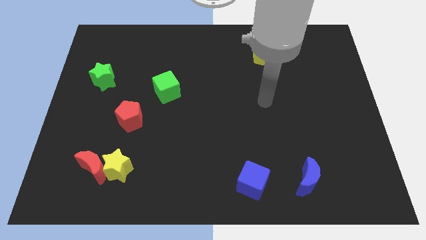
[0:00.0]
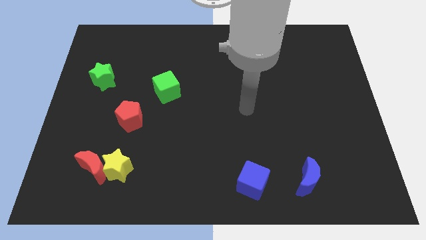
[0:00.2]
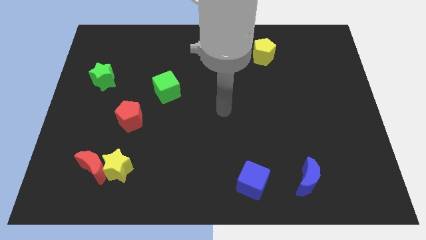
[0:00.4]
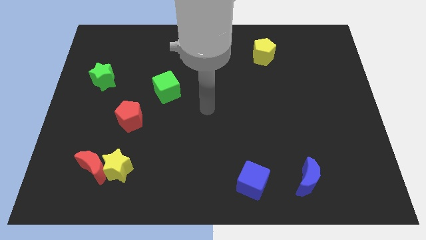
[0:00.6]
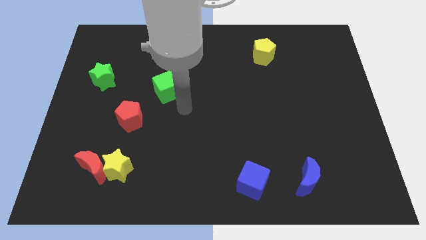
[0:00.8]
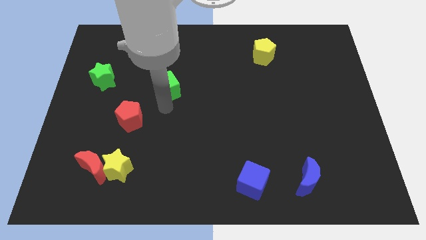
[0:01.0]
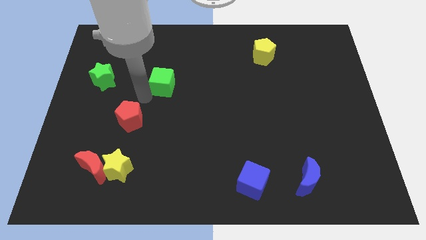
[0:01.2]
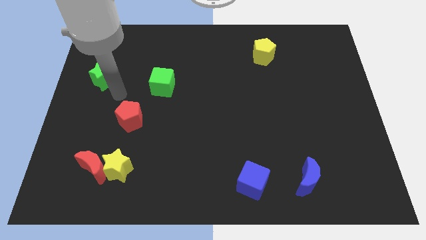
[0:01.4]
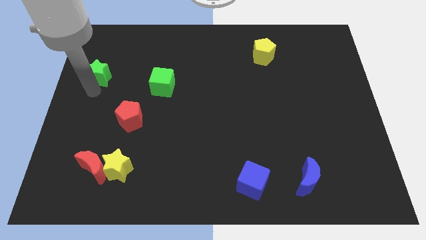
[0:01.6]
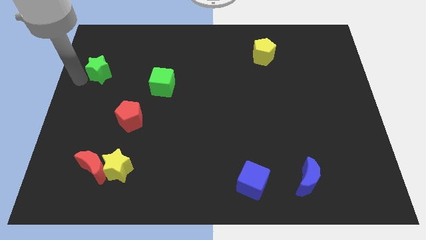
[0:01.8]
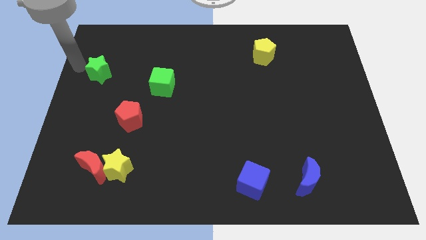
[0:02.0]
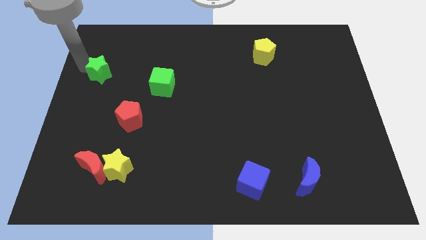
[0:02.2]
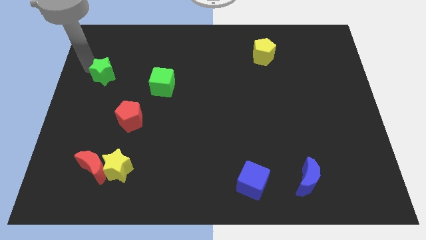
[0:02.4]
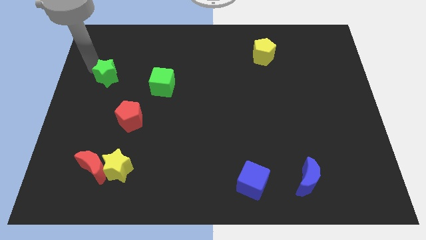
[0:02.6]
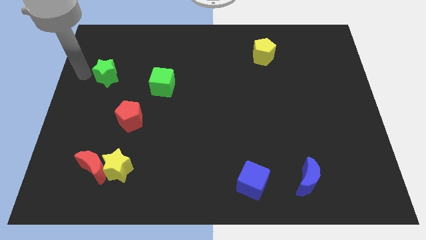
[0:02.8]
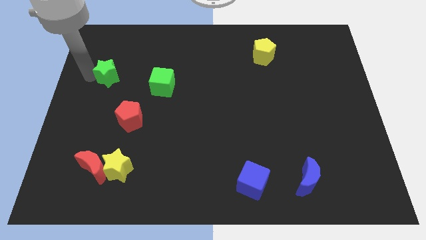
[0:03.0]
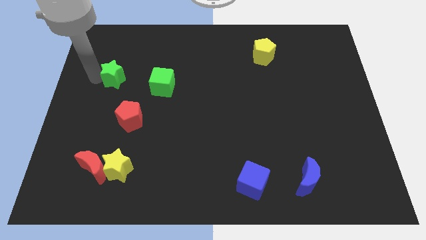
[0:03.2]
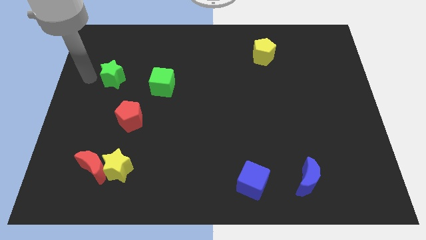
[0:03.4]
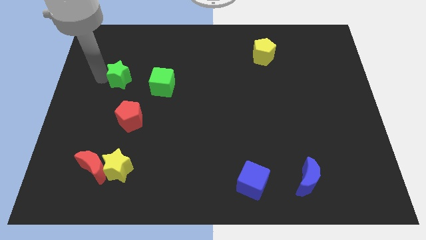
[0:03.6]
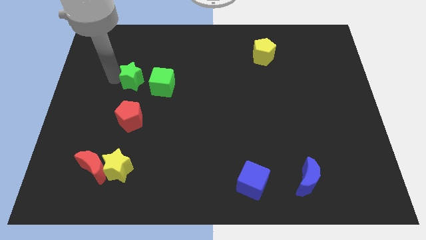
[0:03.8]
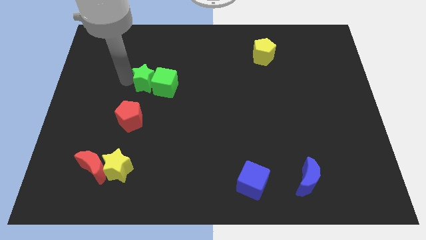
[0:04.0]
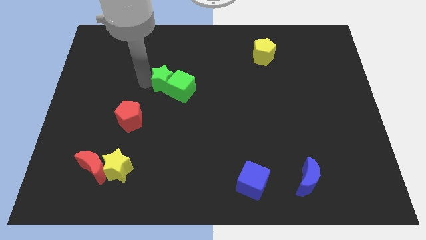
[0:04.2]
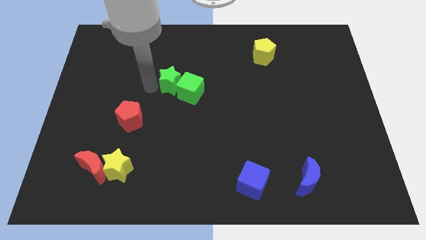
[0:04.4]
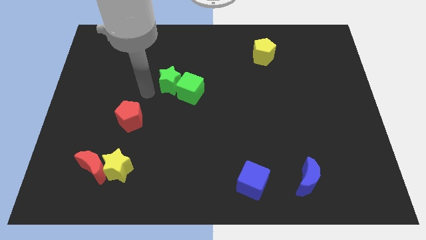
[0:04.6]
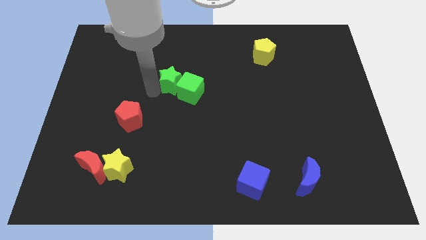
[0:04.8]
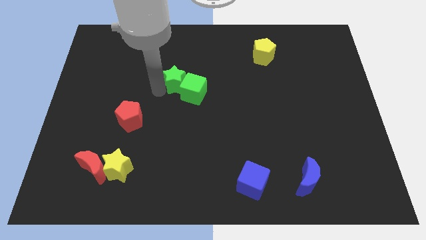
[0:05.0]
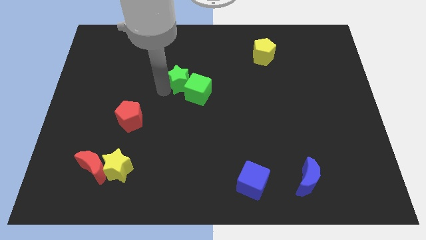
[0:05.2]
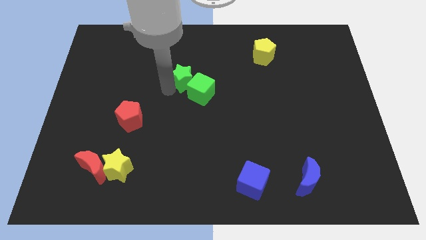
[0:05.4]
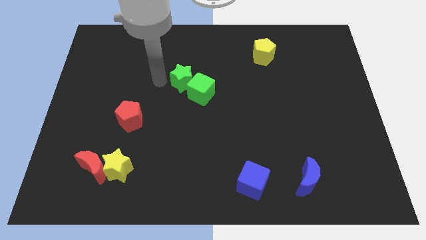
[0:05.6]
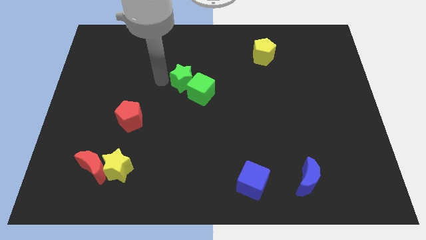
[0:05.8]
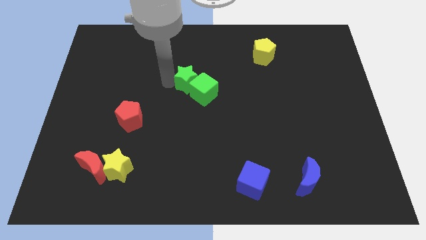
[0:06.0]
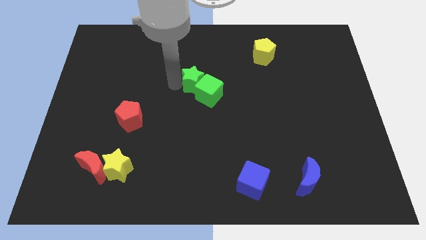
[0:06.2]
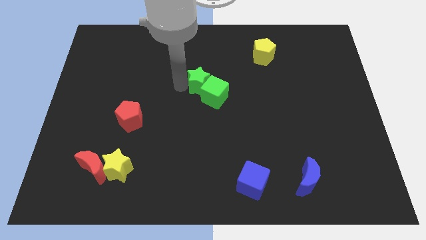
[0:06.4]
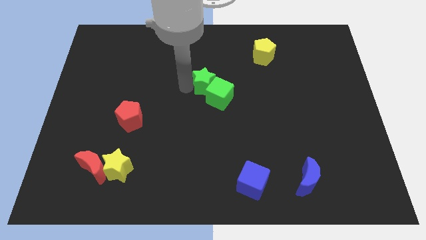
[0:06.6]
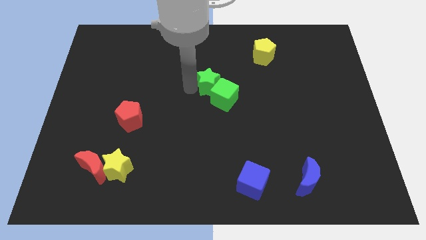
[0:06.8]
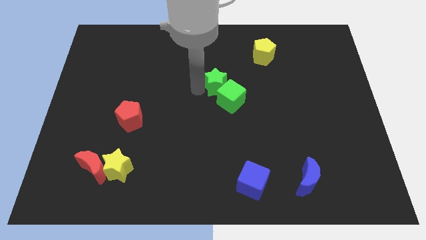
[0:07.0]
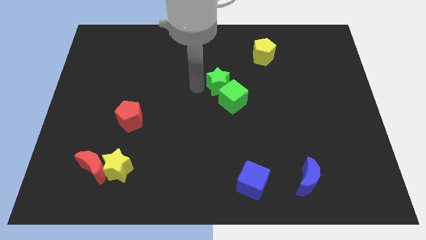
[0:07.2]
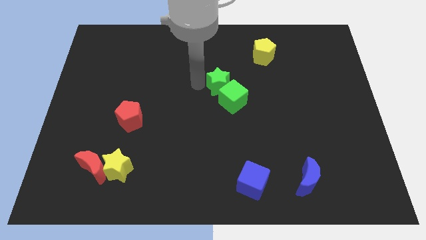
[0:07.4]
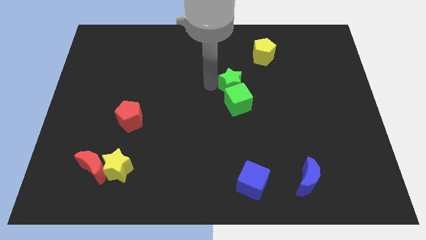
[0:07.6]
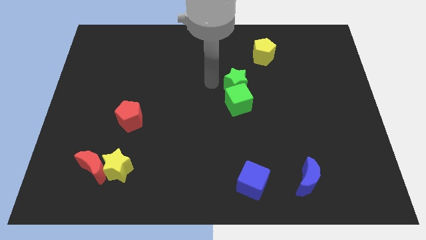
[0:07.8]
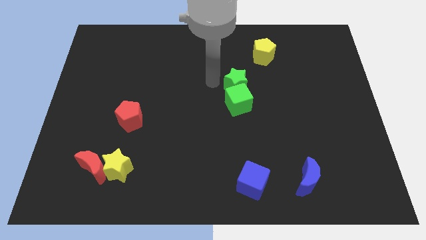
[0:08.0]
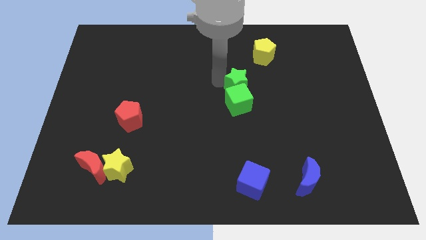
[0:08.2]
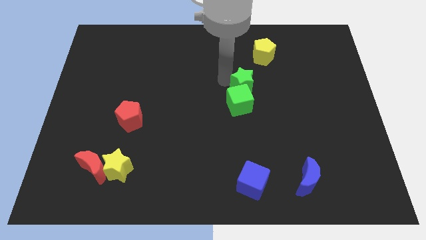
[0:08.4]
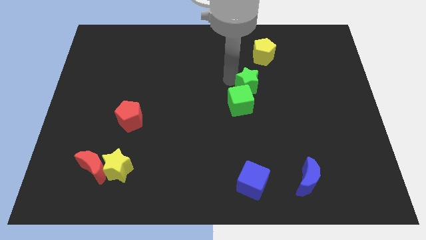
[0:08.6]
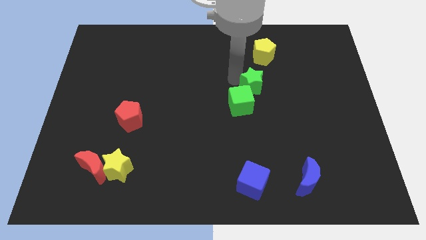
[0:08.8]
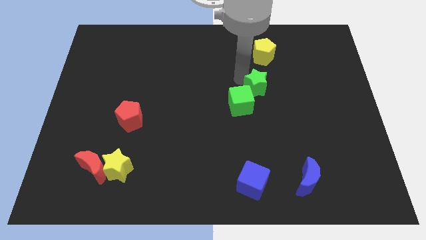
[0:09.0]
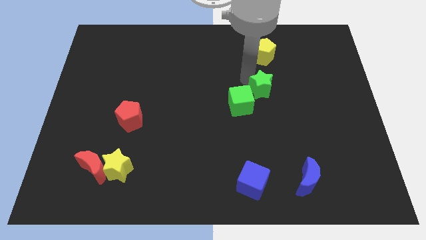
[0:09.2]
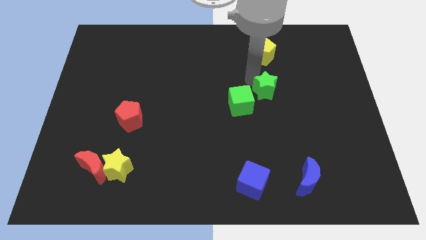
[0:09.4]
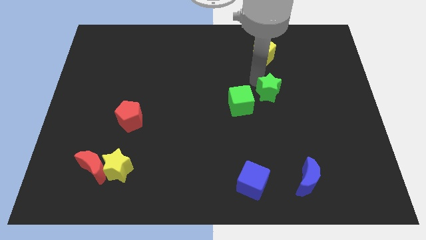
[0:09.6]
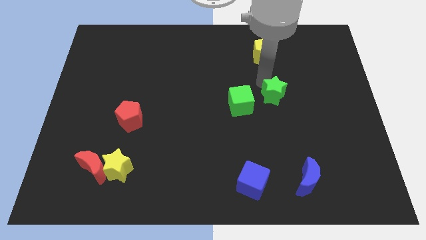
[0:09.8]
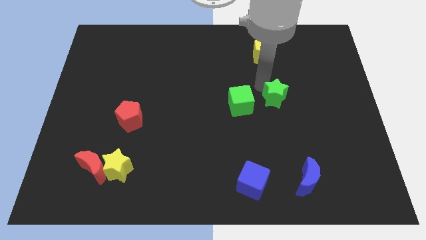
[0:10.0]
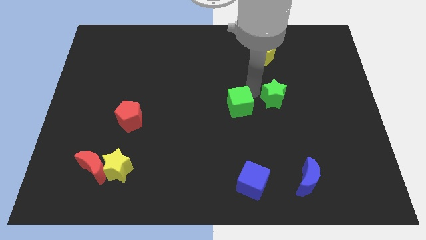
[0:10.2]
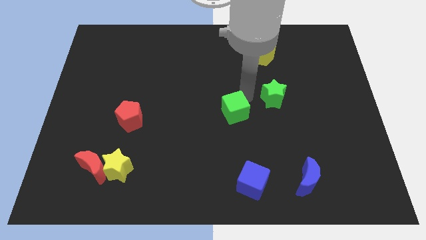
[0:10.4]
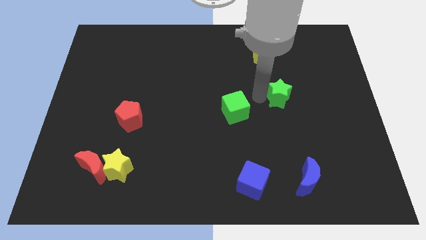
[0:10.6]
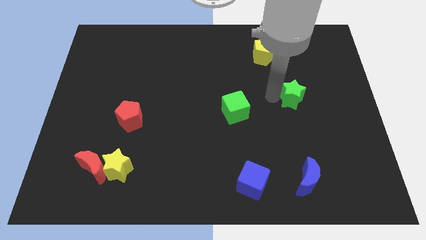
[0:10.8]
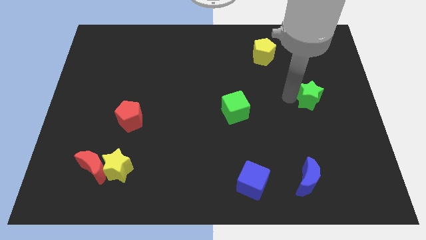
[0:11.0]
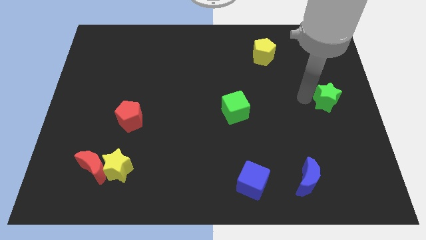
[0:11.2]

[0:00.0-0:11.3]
push the green star to the right side

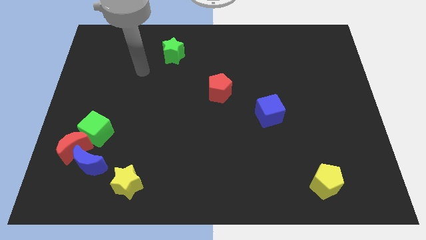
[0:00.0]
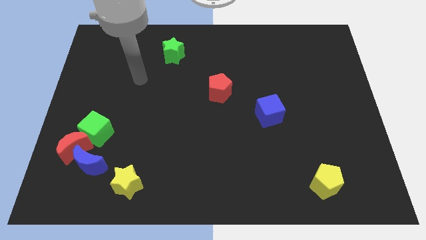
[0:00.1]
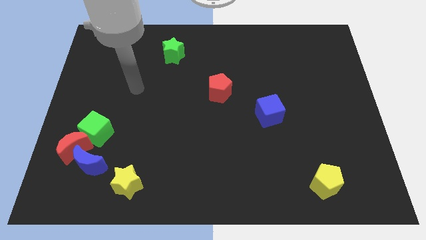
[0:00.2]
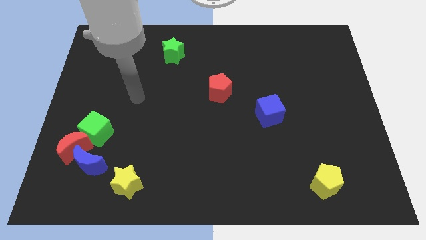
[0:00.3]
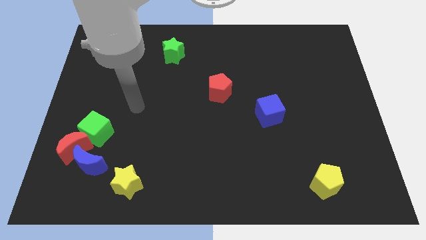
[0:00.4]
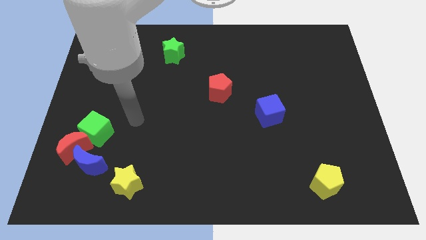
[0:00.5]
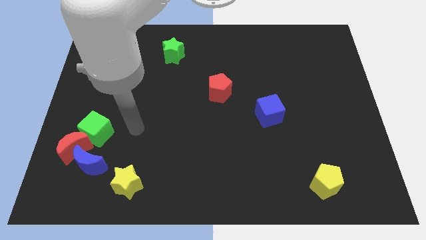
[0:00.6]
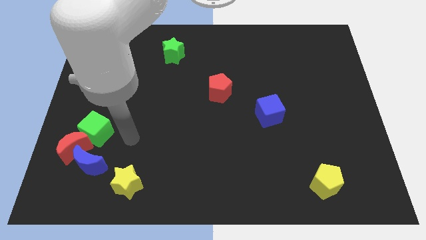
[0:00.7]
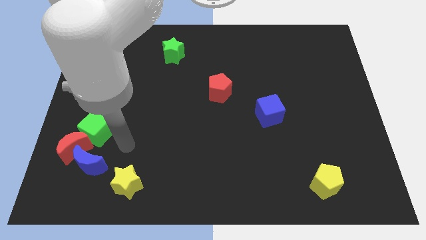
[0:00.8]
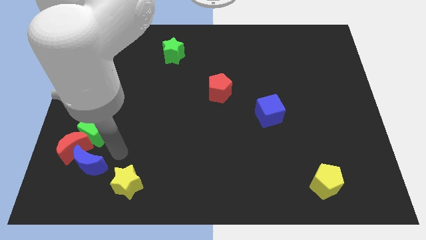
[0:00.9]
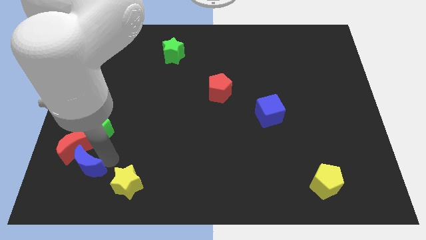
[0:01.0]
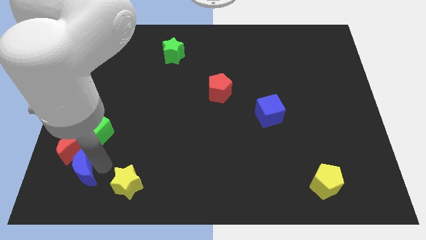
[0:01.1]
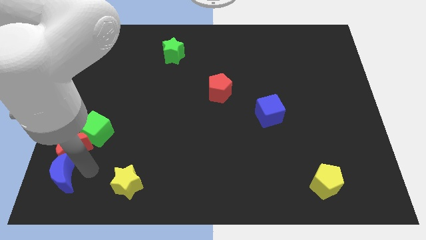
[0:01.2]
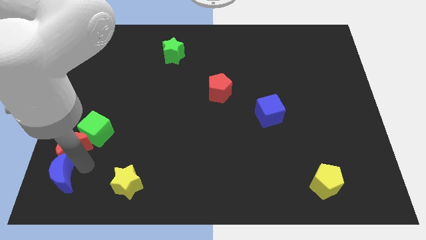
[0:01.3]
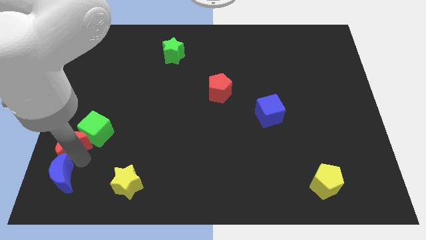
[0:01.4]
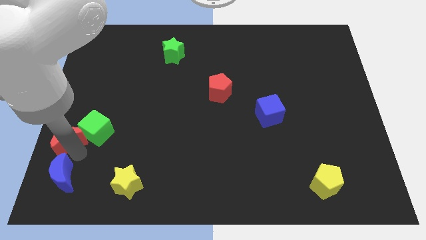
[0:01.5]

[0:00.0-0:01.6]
put the red moon to the left side
